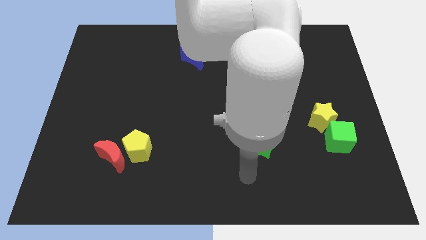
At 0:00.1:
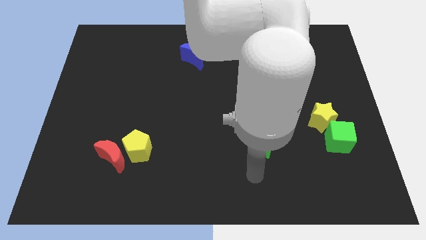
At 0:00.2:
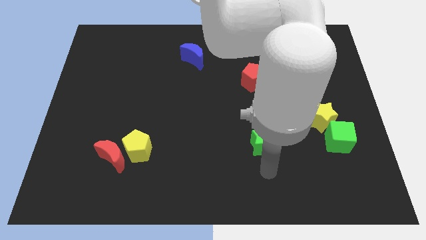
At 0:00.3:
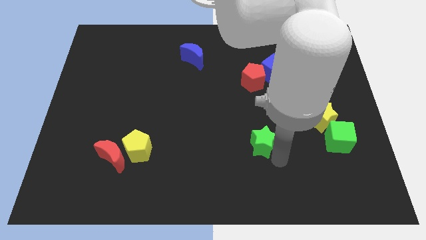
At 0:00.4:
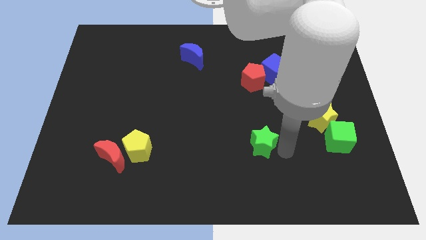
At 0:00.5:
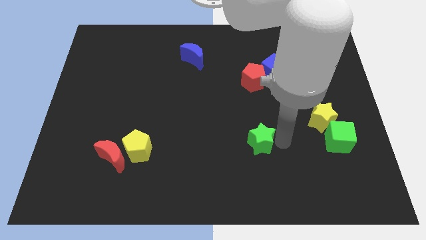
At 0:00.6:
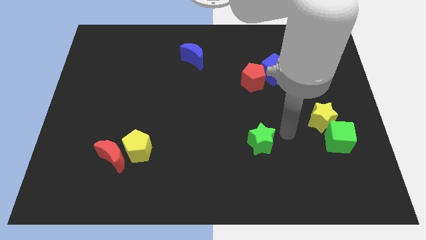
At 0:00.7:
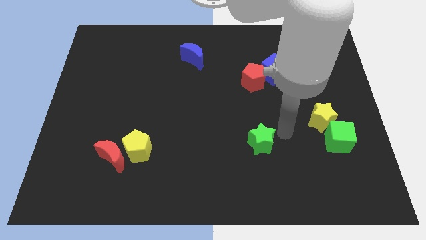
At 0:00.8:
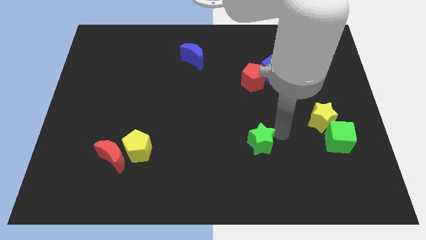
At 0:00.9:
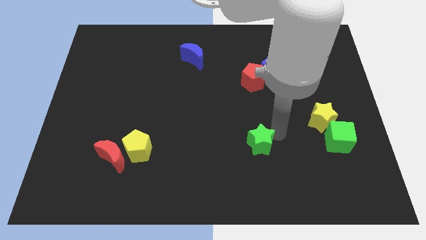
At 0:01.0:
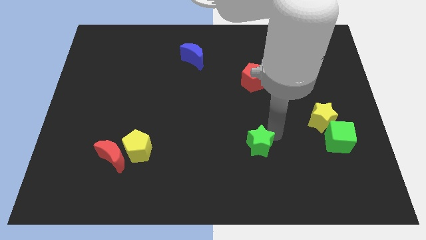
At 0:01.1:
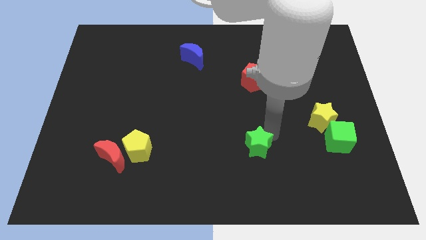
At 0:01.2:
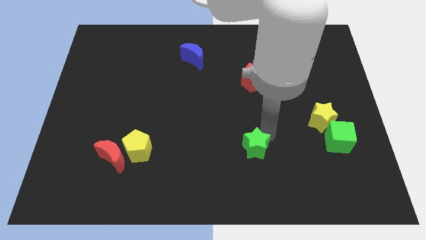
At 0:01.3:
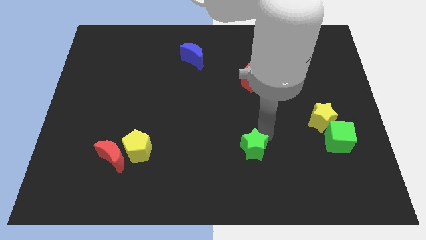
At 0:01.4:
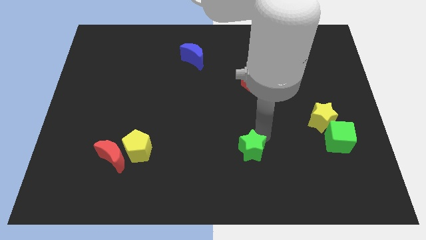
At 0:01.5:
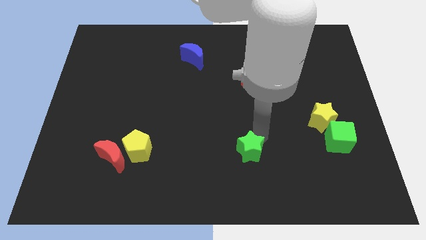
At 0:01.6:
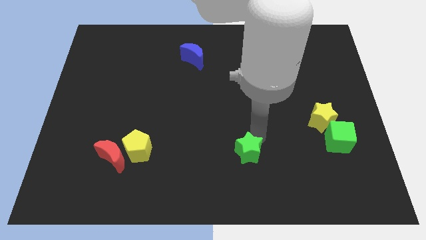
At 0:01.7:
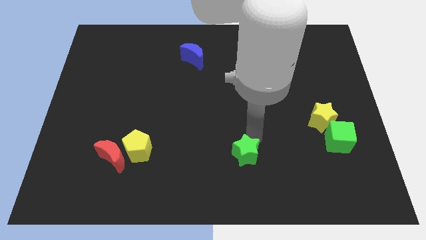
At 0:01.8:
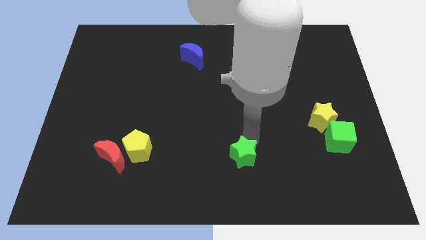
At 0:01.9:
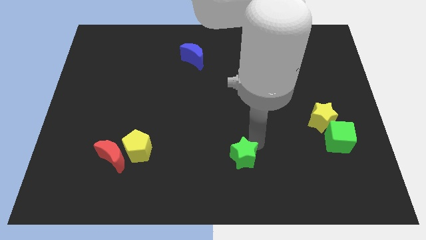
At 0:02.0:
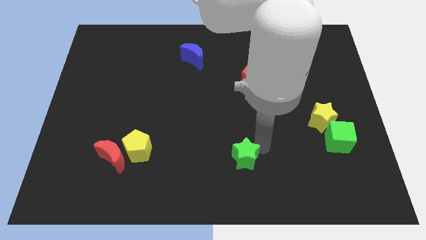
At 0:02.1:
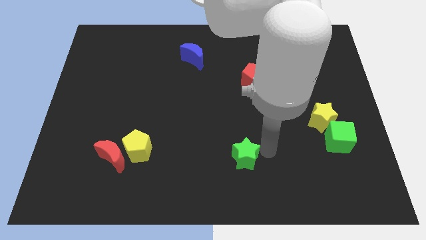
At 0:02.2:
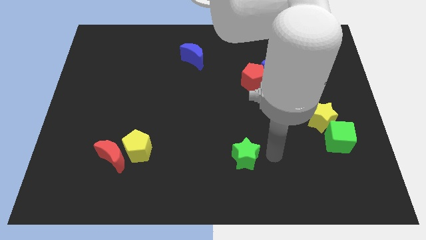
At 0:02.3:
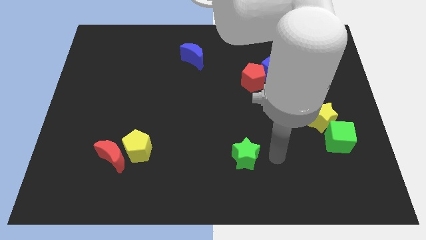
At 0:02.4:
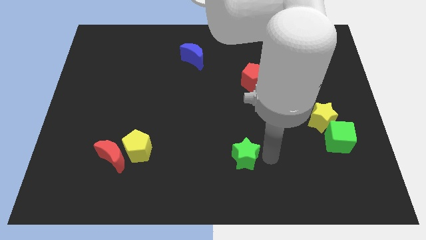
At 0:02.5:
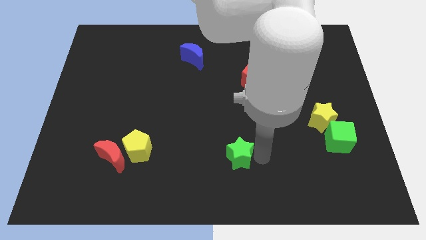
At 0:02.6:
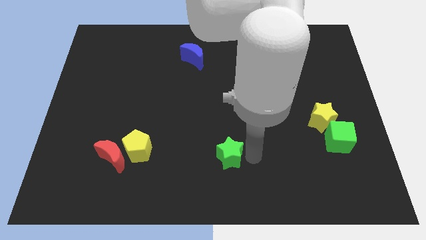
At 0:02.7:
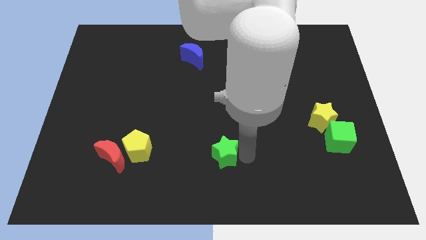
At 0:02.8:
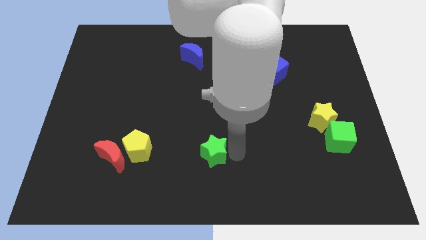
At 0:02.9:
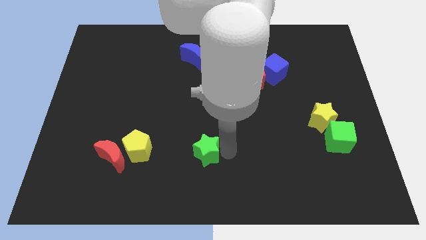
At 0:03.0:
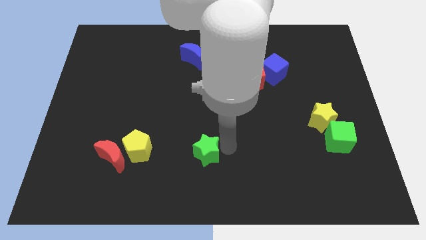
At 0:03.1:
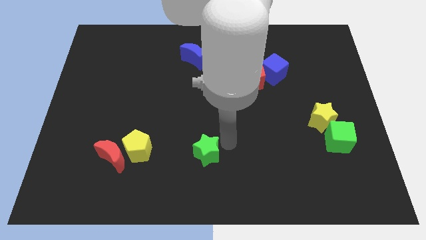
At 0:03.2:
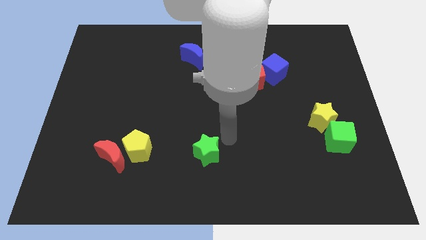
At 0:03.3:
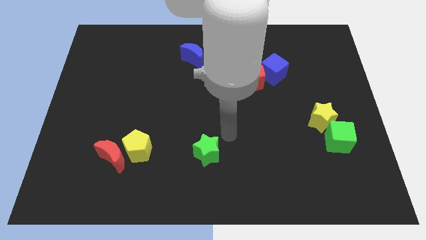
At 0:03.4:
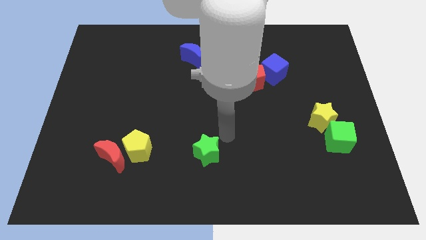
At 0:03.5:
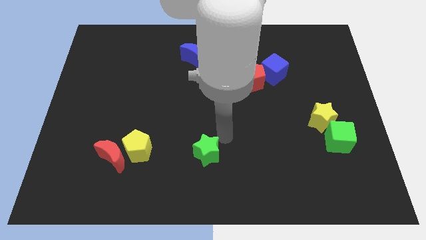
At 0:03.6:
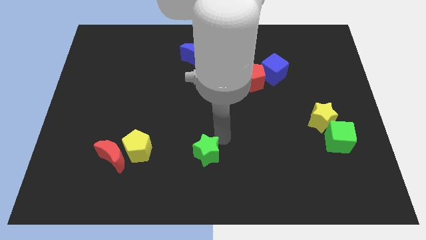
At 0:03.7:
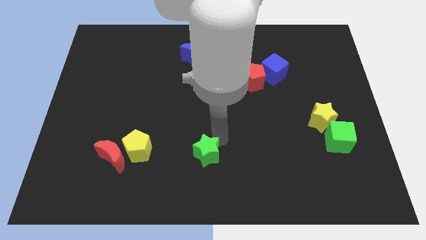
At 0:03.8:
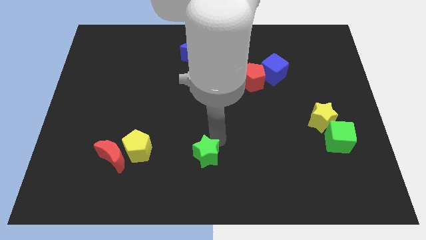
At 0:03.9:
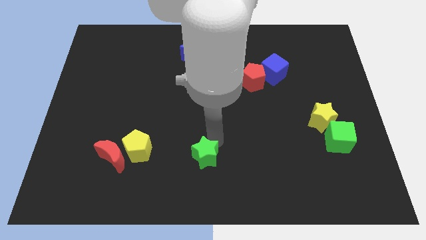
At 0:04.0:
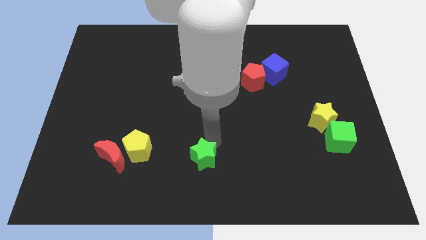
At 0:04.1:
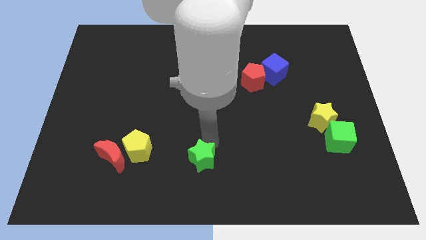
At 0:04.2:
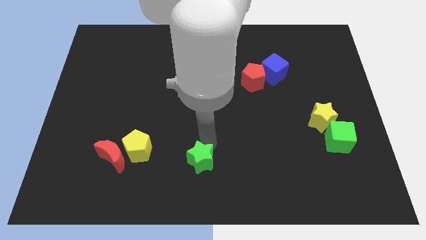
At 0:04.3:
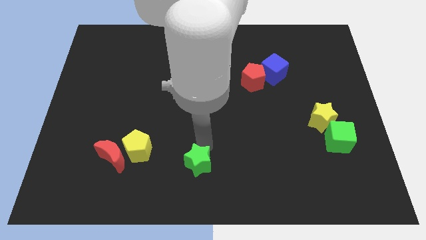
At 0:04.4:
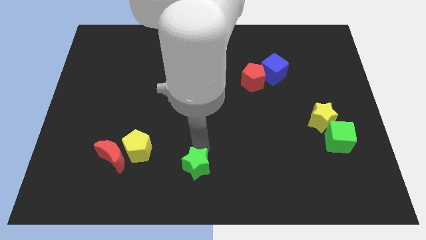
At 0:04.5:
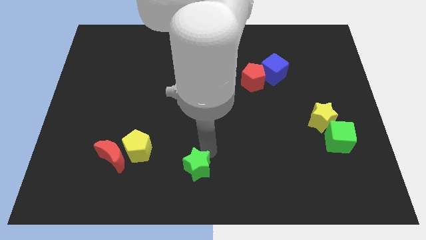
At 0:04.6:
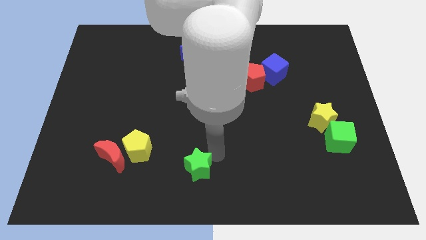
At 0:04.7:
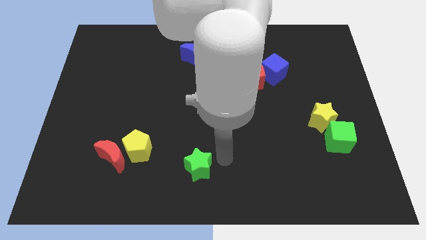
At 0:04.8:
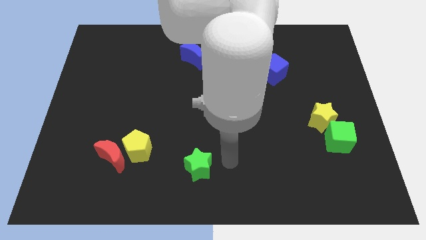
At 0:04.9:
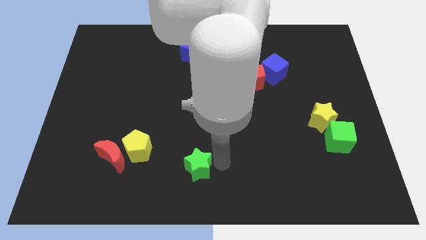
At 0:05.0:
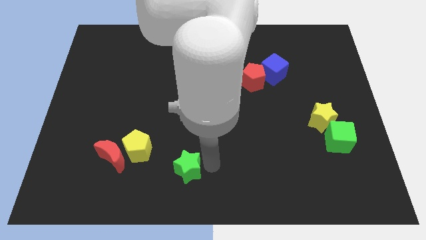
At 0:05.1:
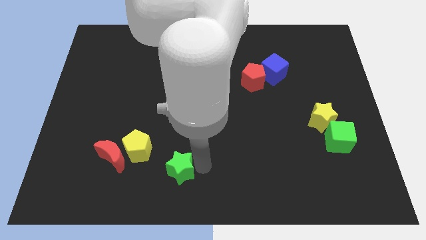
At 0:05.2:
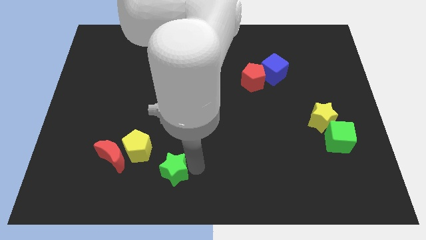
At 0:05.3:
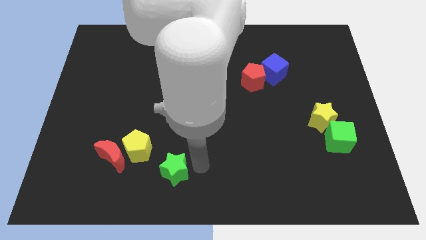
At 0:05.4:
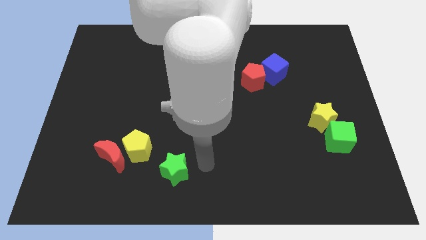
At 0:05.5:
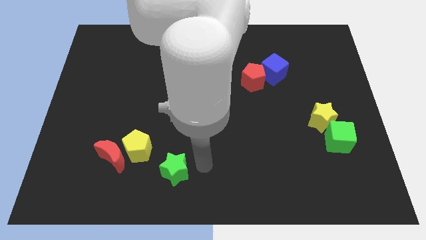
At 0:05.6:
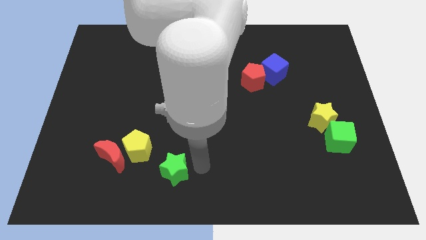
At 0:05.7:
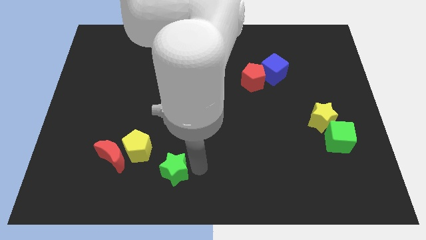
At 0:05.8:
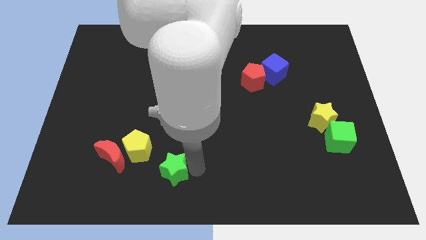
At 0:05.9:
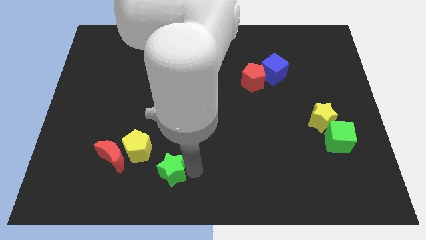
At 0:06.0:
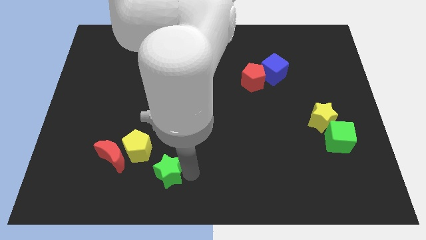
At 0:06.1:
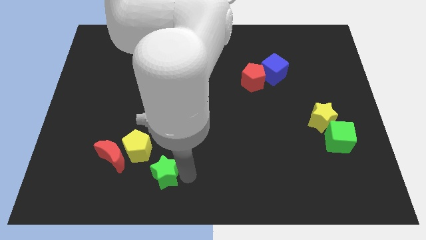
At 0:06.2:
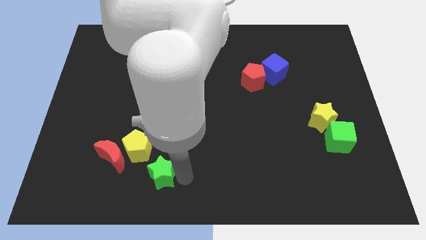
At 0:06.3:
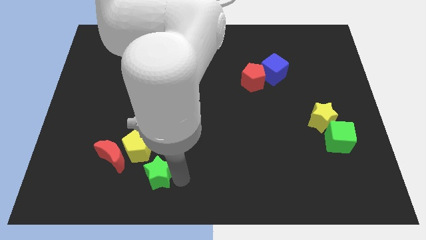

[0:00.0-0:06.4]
put the green star diagonally down and to the right of the red moon
